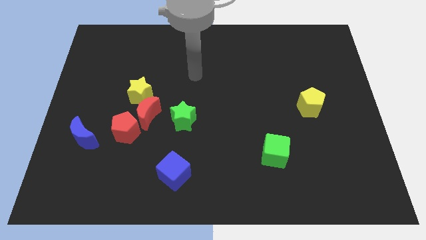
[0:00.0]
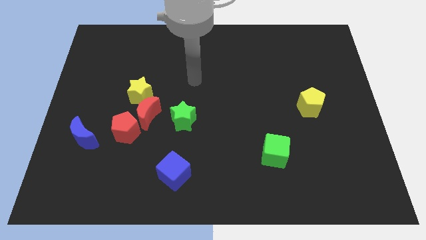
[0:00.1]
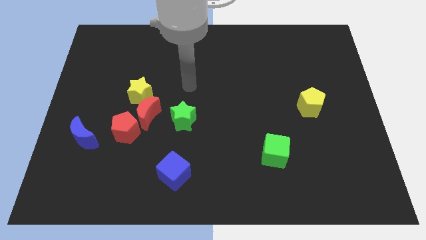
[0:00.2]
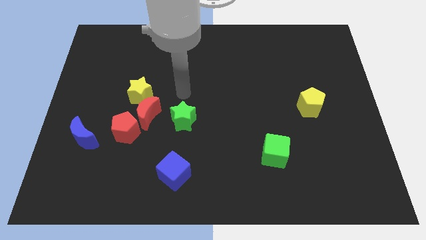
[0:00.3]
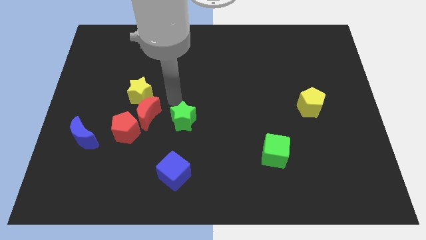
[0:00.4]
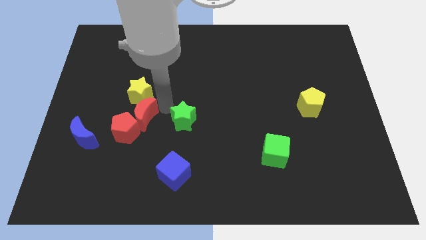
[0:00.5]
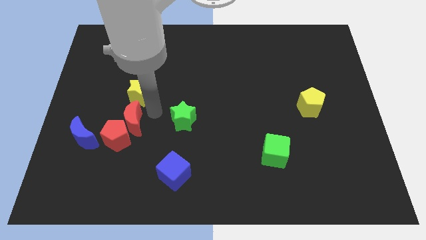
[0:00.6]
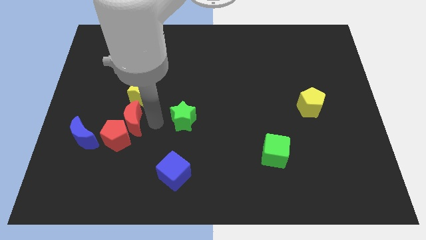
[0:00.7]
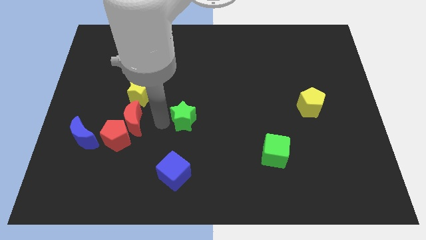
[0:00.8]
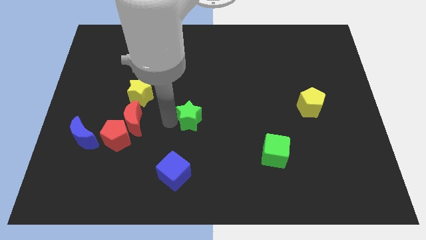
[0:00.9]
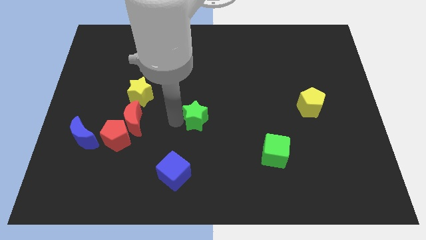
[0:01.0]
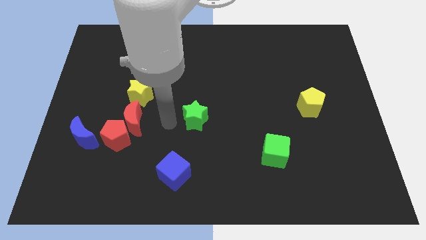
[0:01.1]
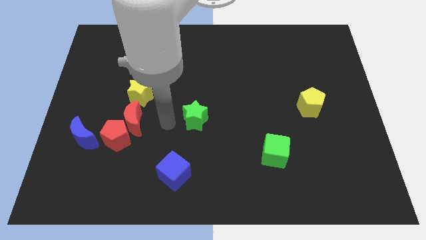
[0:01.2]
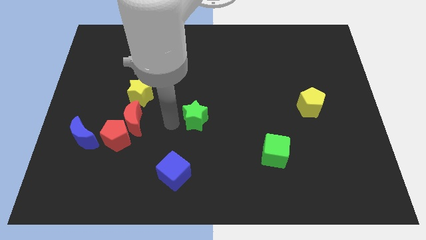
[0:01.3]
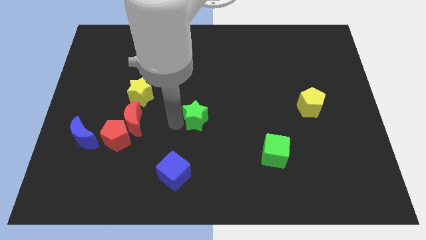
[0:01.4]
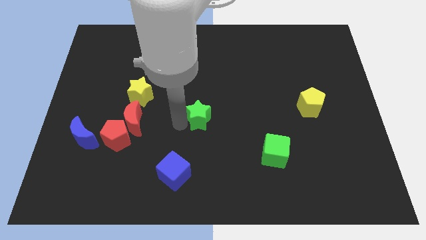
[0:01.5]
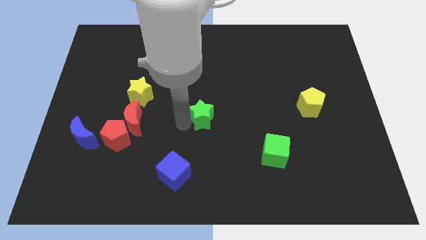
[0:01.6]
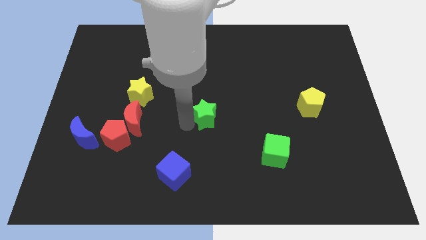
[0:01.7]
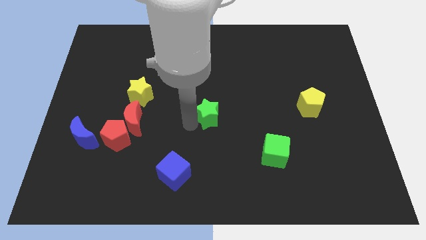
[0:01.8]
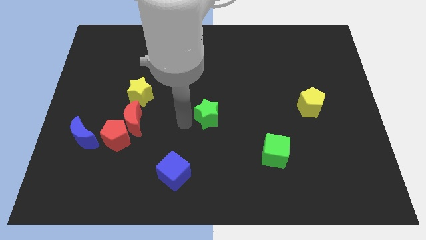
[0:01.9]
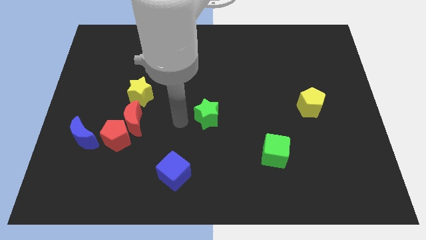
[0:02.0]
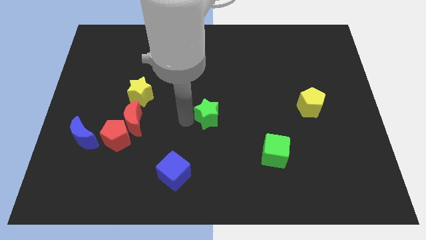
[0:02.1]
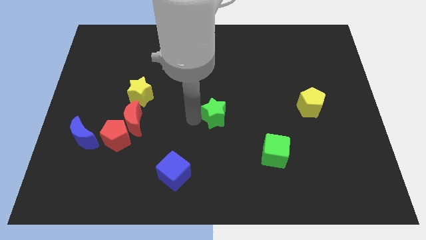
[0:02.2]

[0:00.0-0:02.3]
move the green star to the right a bit

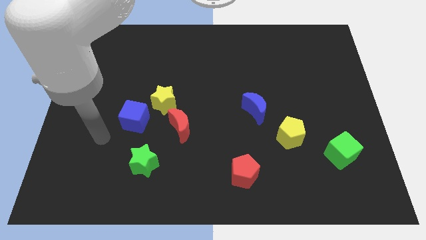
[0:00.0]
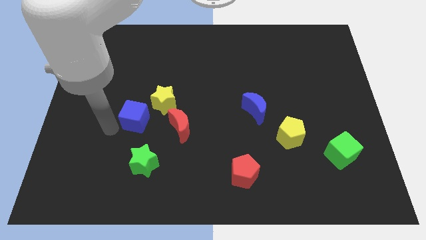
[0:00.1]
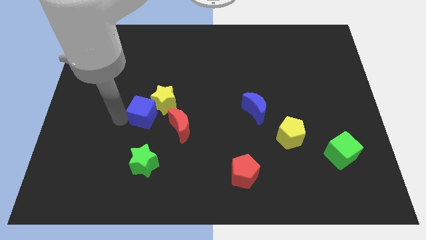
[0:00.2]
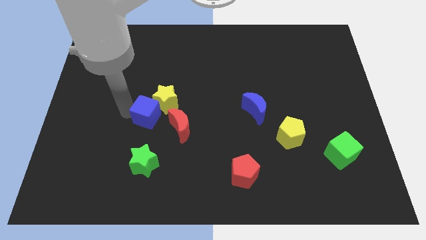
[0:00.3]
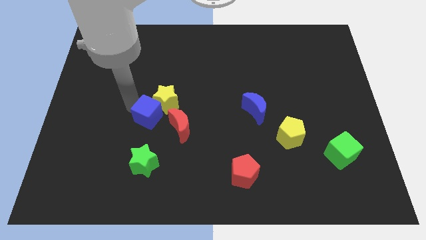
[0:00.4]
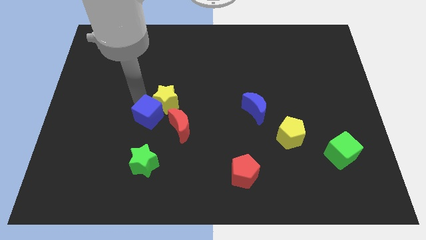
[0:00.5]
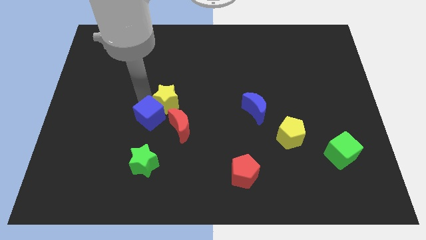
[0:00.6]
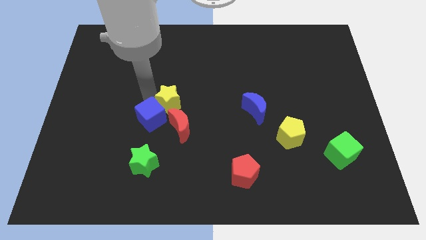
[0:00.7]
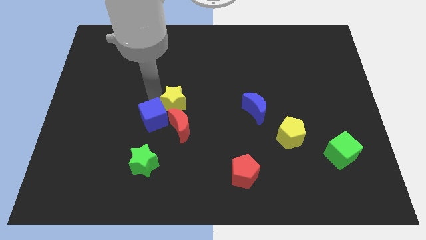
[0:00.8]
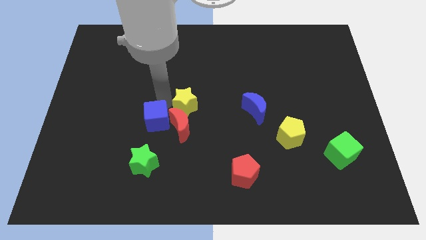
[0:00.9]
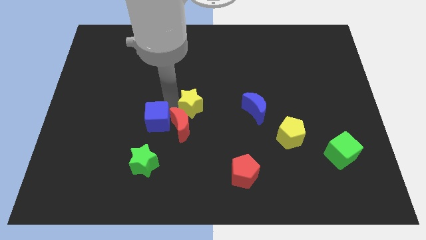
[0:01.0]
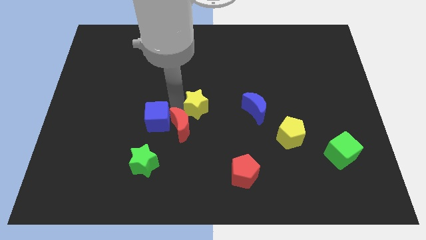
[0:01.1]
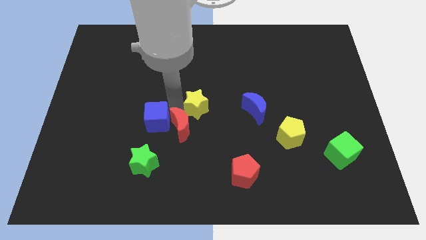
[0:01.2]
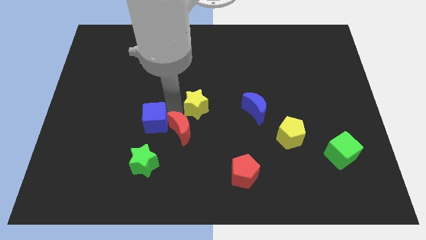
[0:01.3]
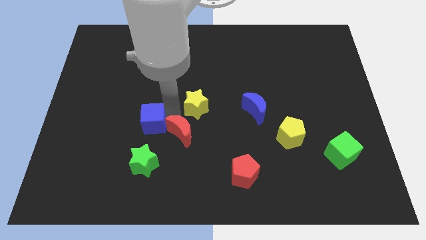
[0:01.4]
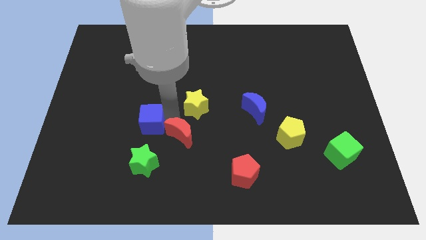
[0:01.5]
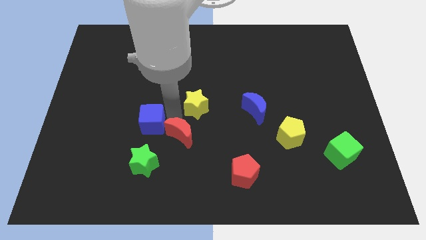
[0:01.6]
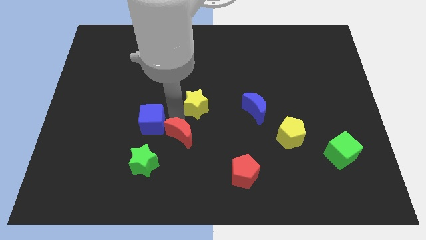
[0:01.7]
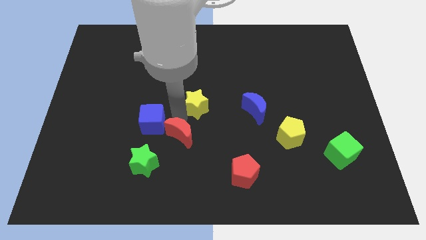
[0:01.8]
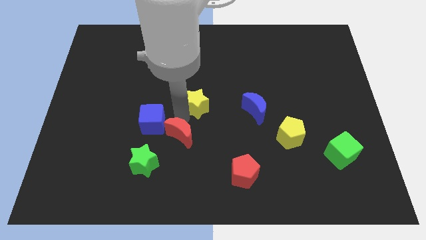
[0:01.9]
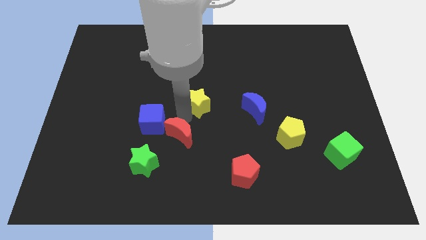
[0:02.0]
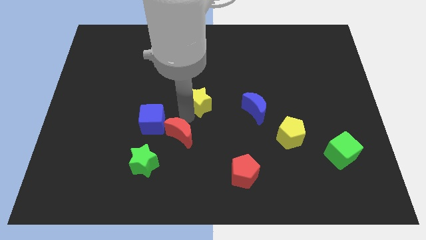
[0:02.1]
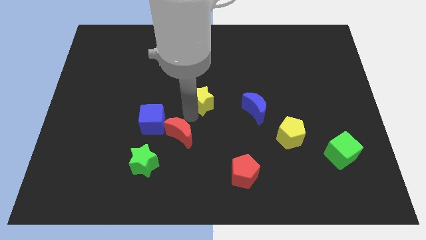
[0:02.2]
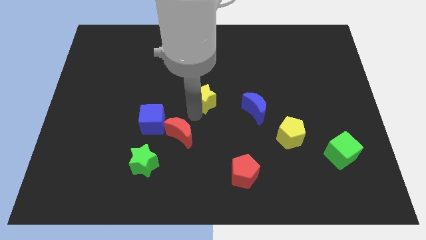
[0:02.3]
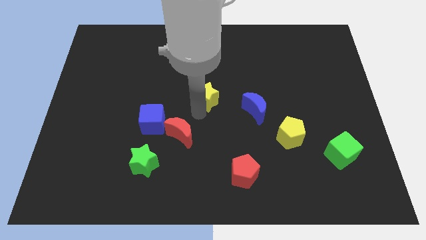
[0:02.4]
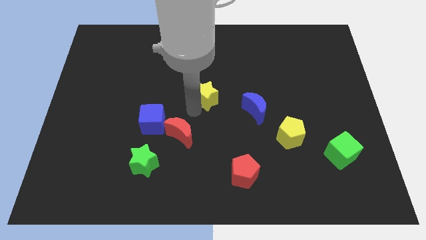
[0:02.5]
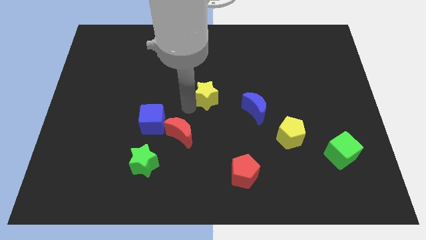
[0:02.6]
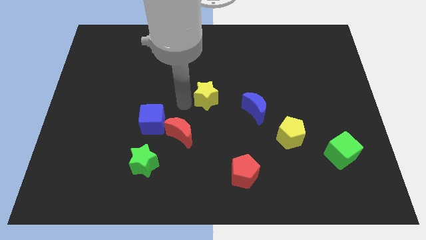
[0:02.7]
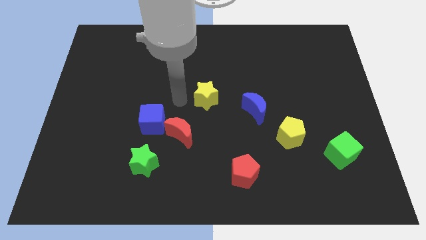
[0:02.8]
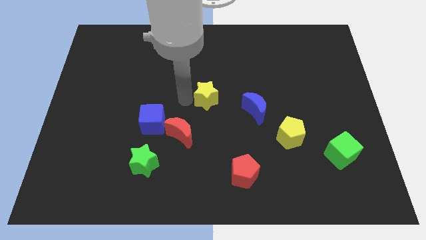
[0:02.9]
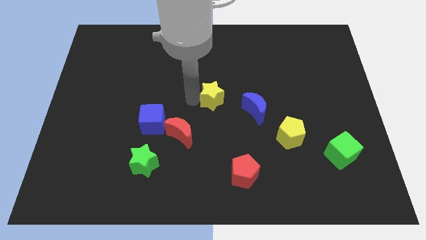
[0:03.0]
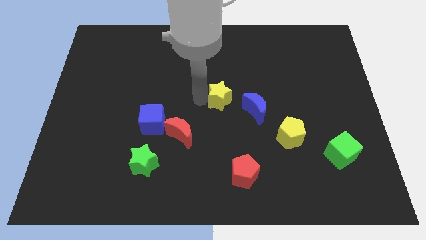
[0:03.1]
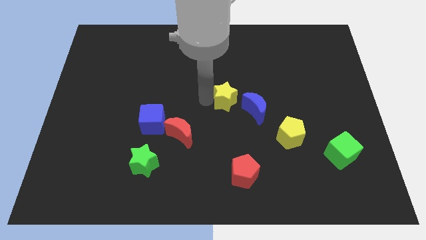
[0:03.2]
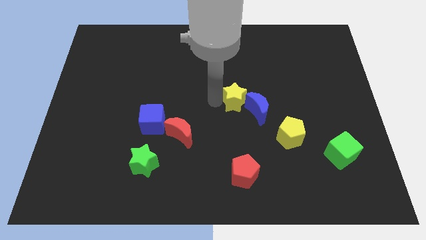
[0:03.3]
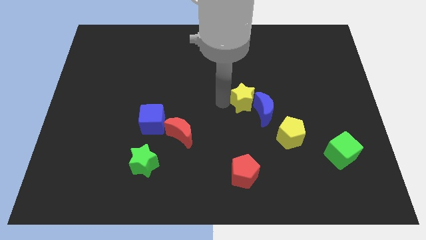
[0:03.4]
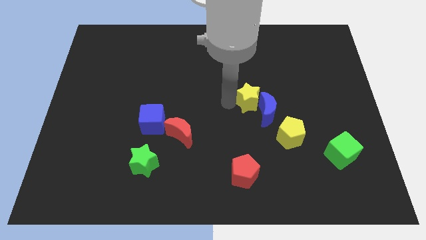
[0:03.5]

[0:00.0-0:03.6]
push the yellow star to the right

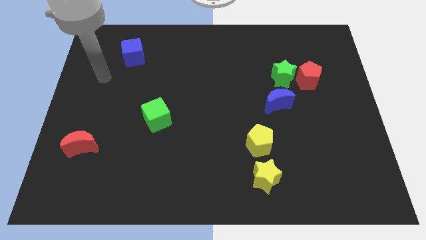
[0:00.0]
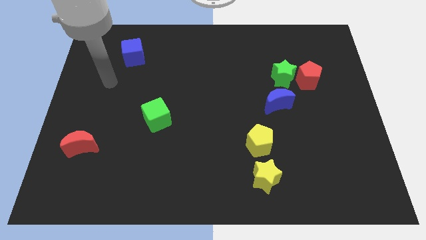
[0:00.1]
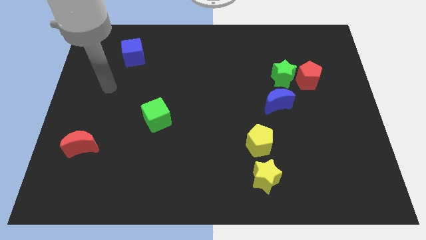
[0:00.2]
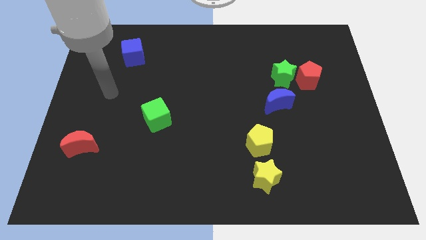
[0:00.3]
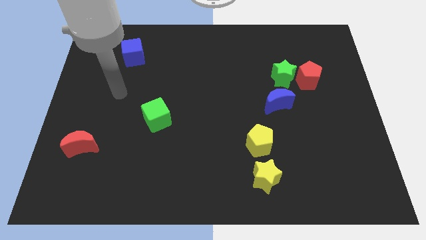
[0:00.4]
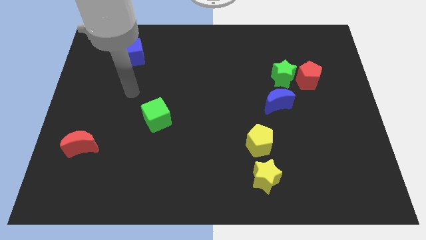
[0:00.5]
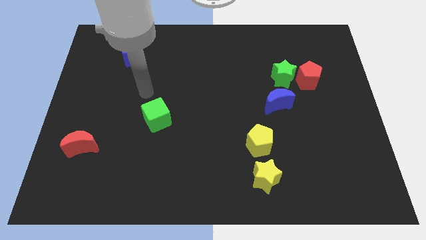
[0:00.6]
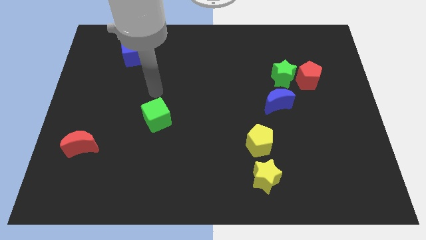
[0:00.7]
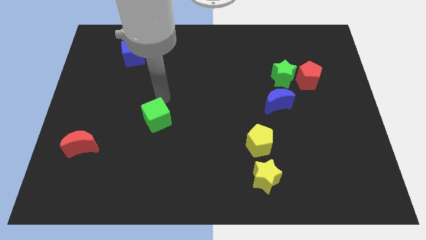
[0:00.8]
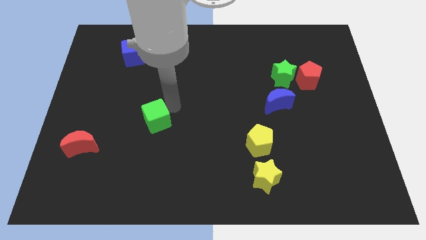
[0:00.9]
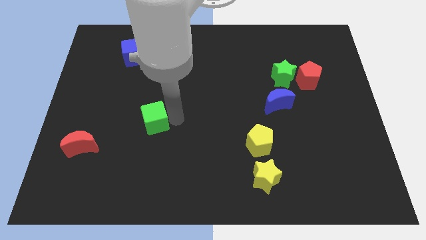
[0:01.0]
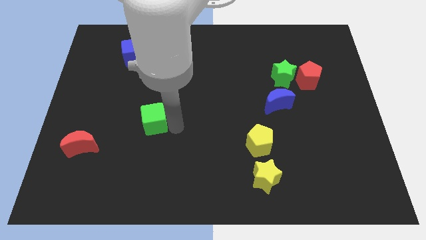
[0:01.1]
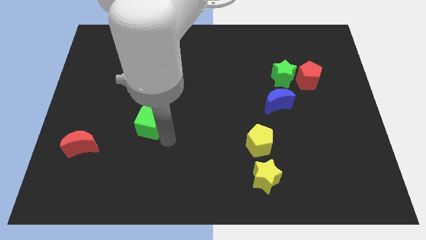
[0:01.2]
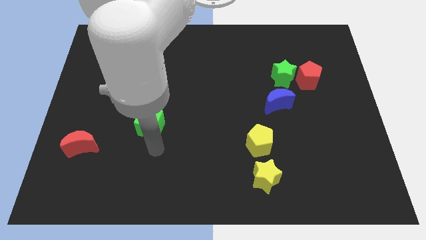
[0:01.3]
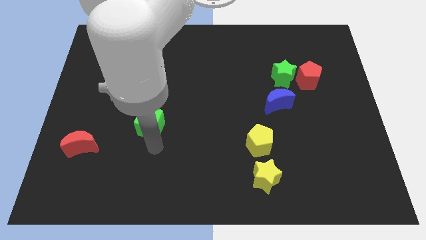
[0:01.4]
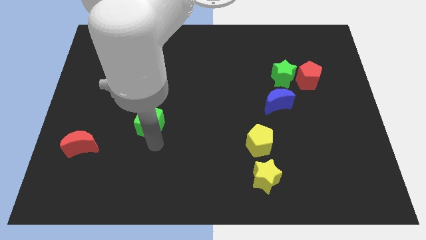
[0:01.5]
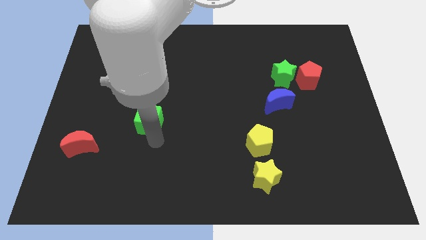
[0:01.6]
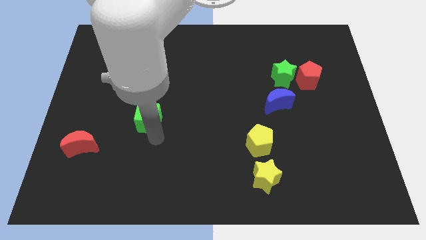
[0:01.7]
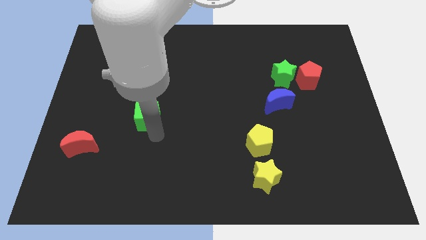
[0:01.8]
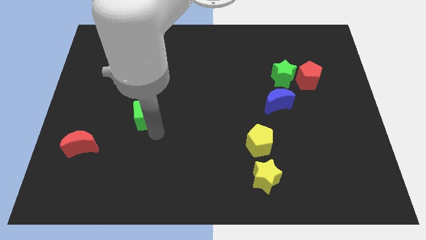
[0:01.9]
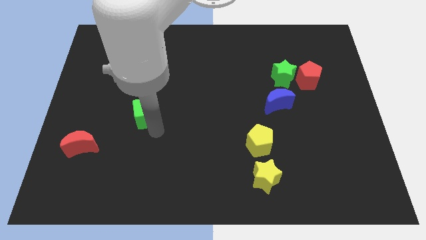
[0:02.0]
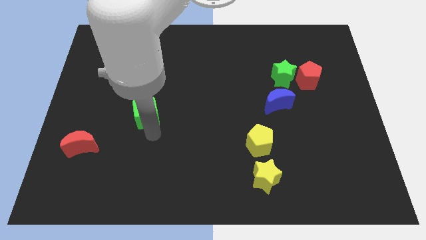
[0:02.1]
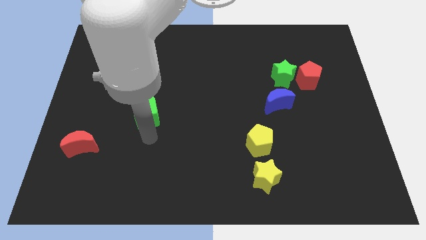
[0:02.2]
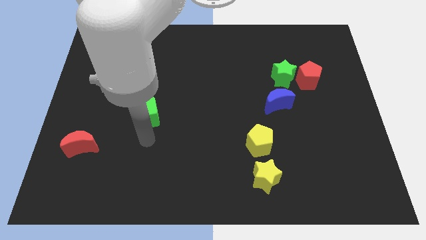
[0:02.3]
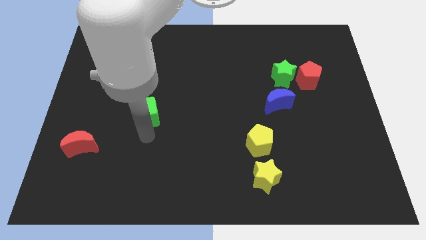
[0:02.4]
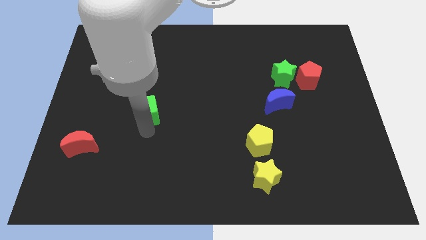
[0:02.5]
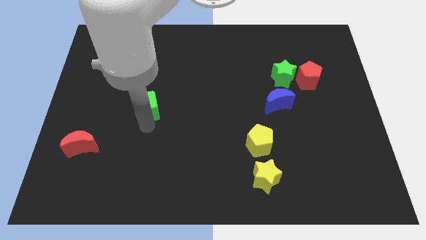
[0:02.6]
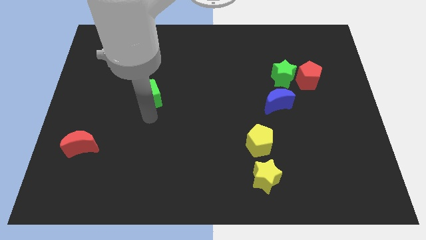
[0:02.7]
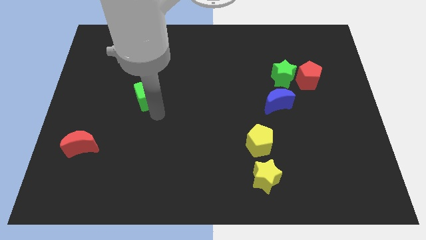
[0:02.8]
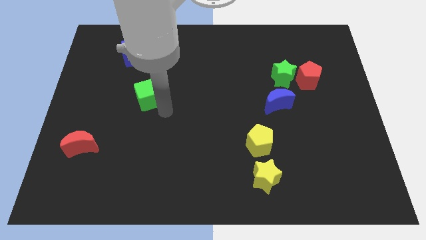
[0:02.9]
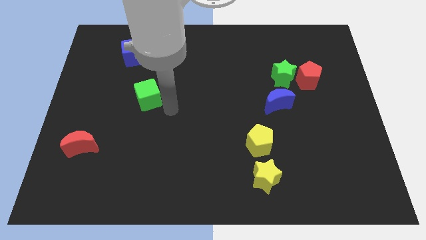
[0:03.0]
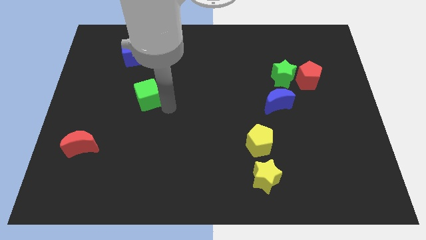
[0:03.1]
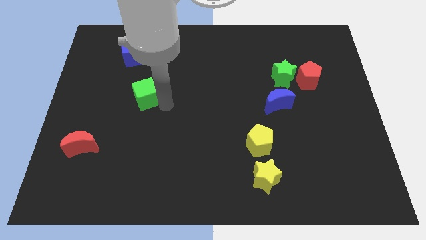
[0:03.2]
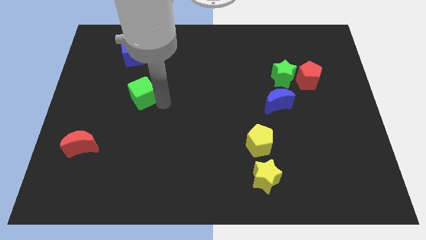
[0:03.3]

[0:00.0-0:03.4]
move the green cube a bit up and left
